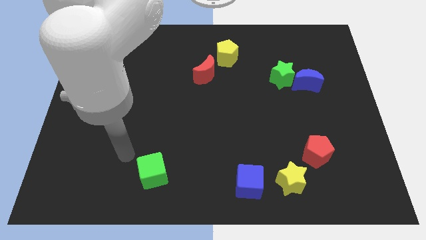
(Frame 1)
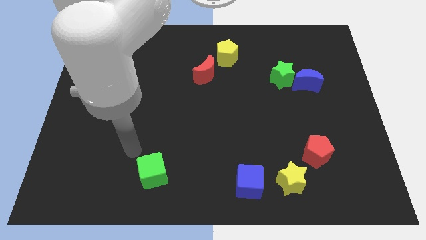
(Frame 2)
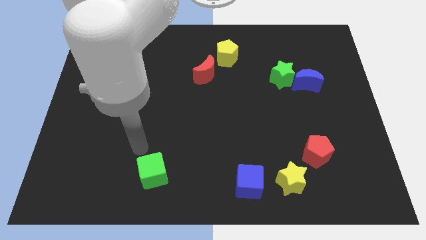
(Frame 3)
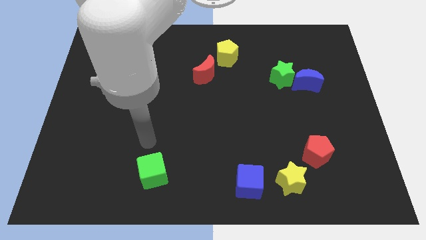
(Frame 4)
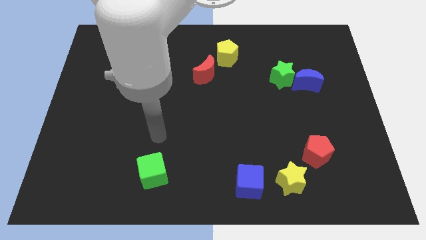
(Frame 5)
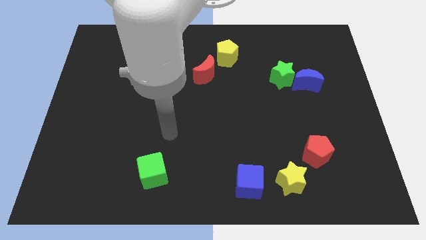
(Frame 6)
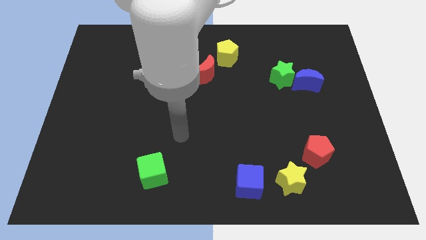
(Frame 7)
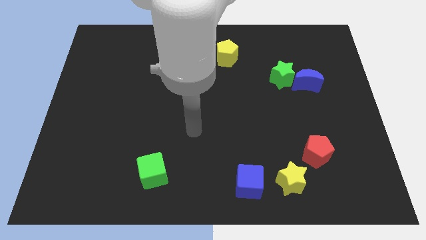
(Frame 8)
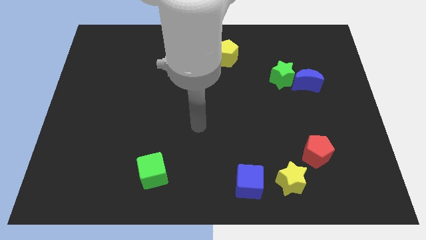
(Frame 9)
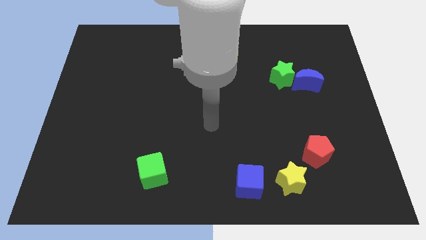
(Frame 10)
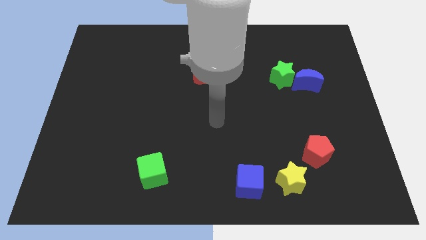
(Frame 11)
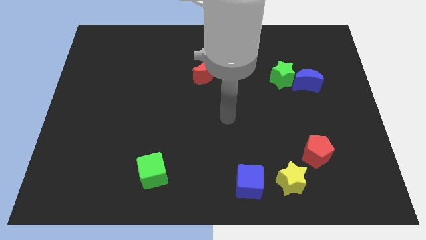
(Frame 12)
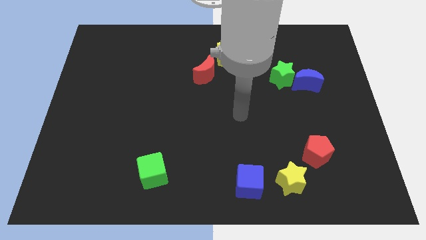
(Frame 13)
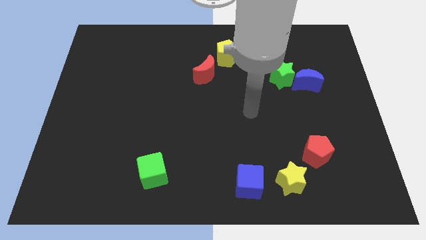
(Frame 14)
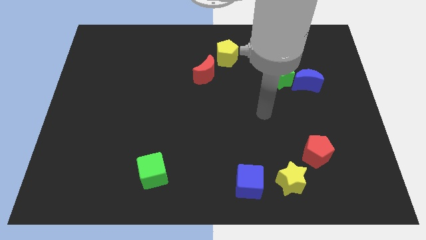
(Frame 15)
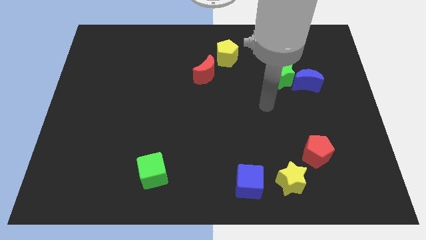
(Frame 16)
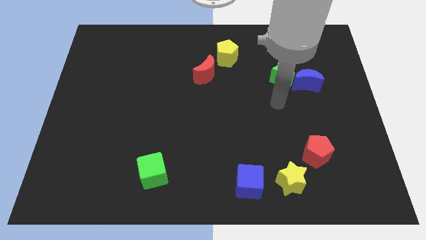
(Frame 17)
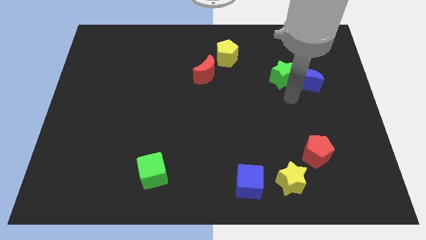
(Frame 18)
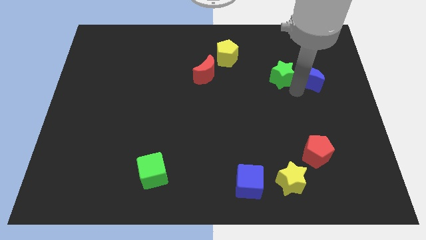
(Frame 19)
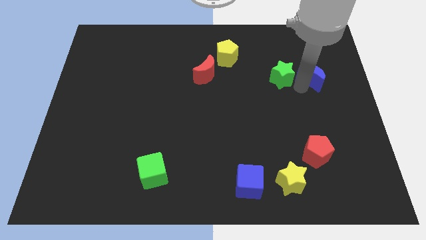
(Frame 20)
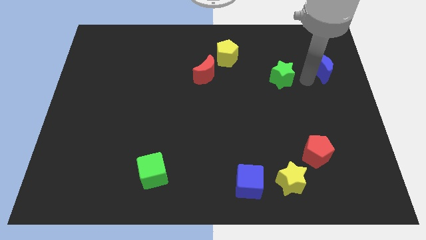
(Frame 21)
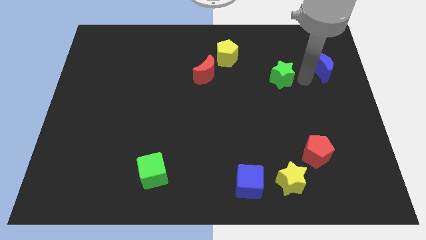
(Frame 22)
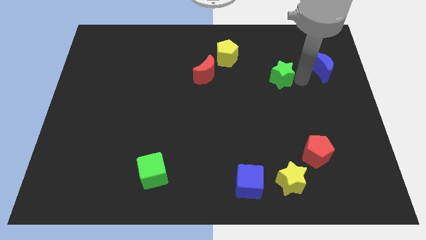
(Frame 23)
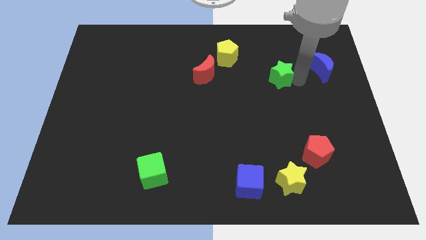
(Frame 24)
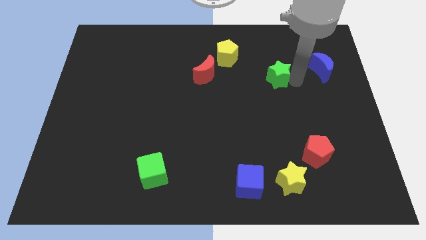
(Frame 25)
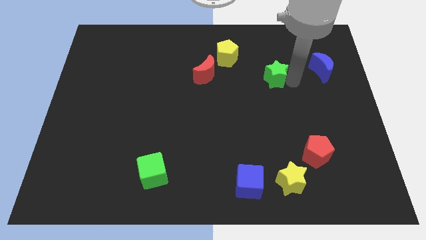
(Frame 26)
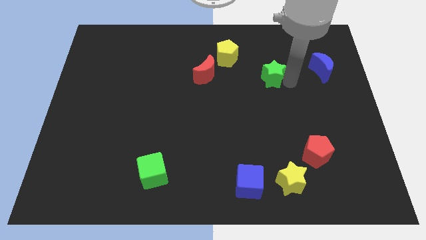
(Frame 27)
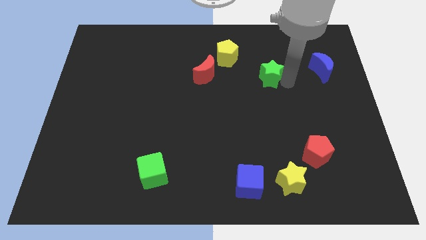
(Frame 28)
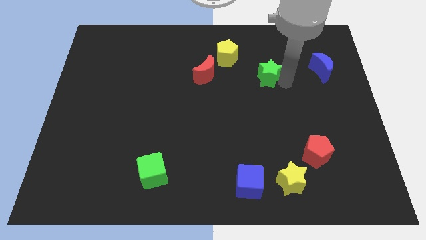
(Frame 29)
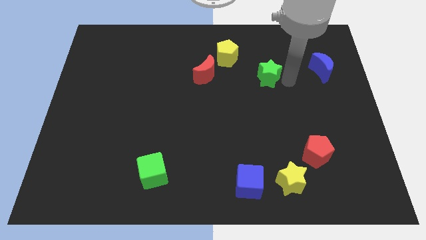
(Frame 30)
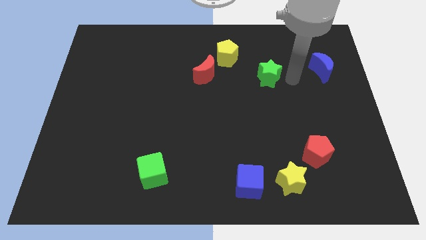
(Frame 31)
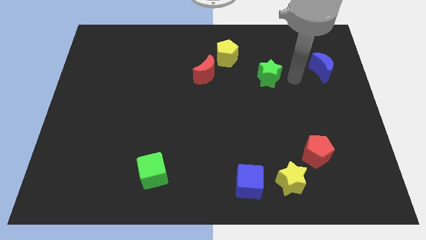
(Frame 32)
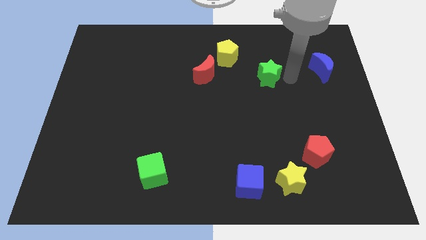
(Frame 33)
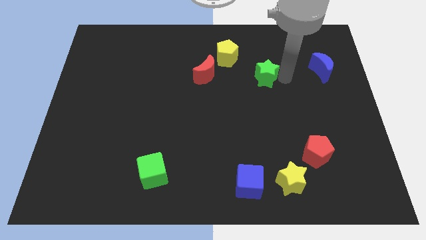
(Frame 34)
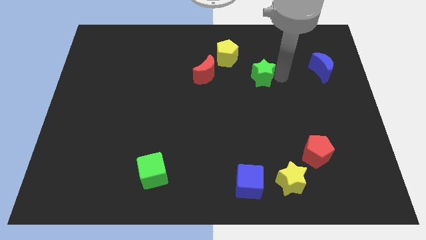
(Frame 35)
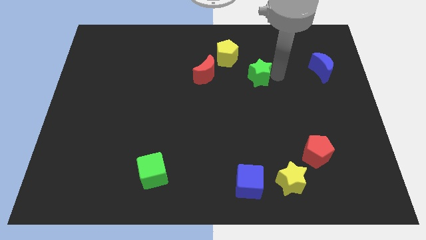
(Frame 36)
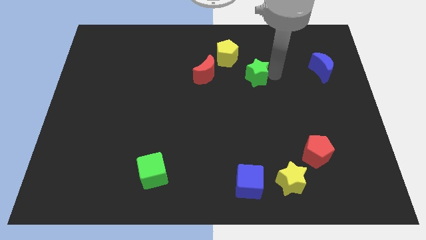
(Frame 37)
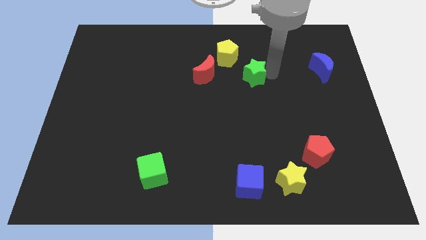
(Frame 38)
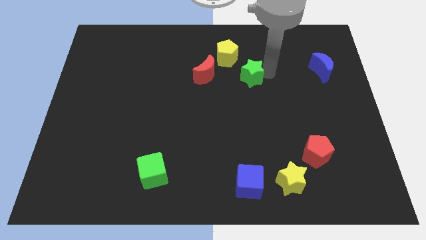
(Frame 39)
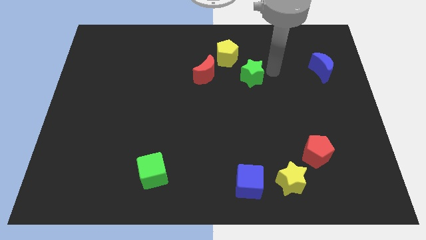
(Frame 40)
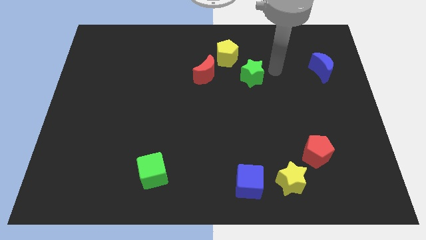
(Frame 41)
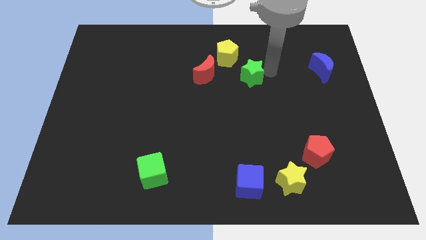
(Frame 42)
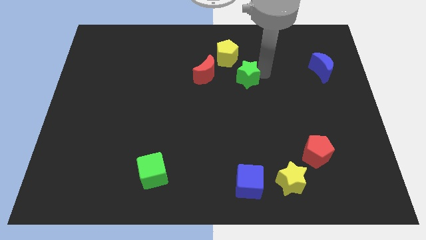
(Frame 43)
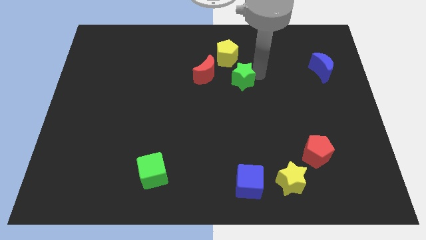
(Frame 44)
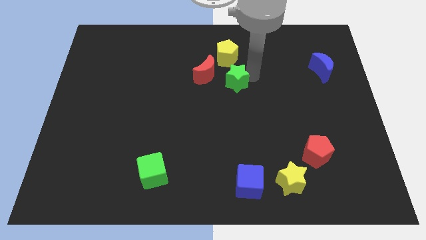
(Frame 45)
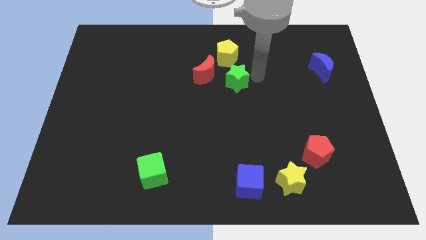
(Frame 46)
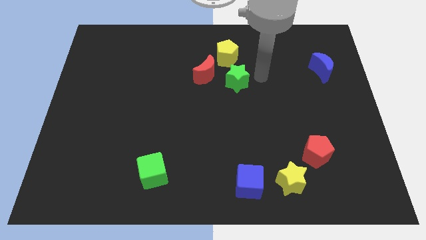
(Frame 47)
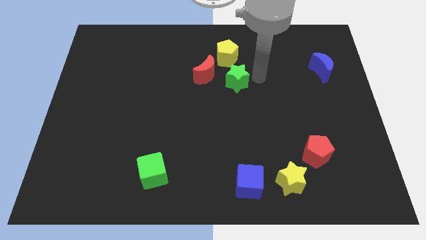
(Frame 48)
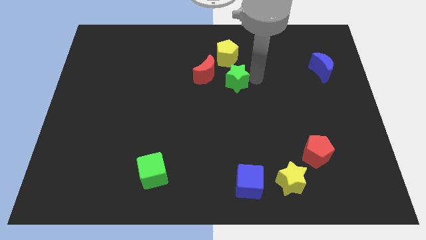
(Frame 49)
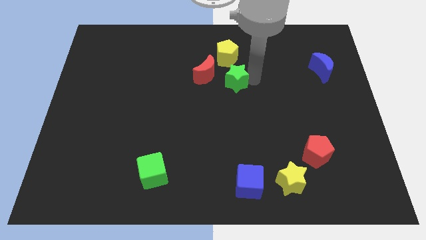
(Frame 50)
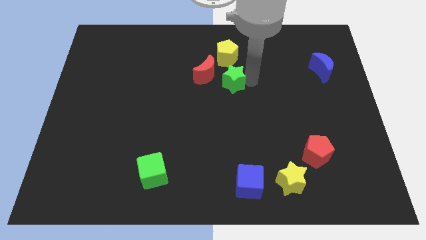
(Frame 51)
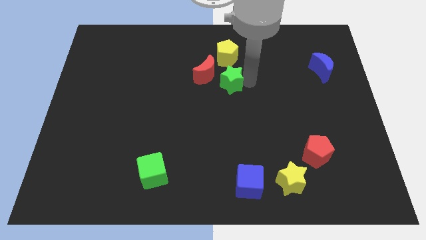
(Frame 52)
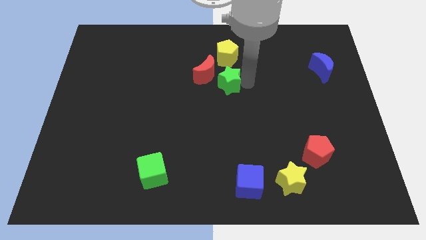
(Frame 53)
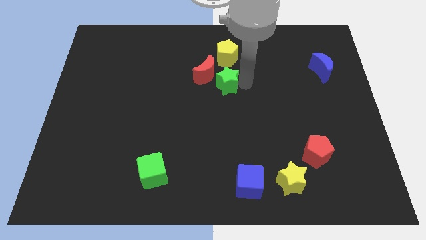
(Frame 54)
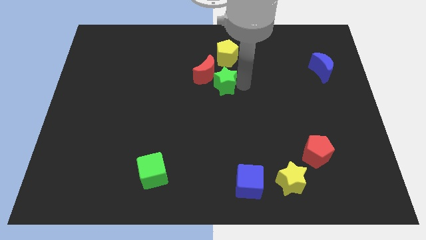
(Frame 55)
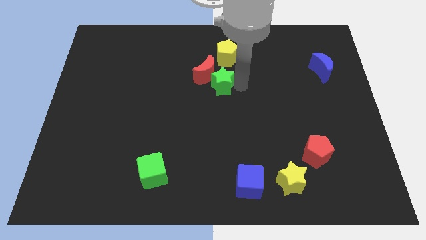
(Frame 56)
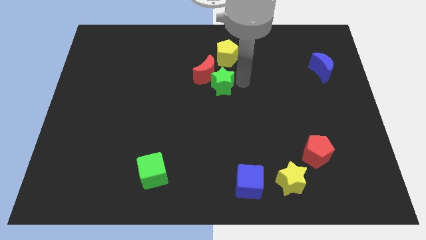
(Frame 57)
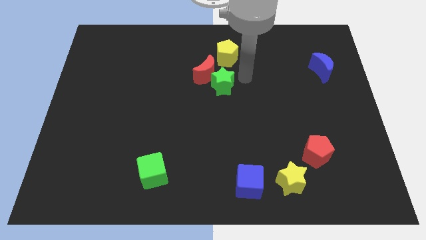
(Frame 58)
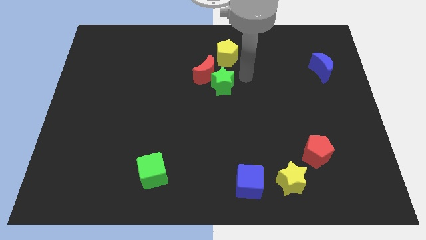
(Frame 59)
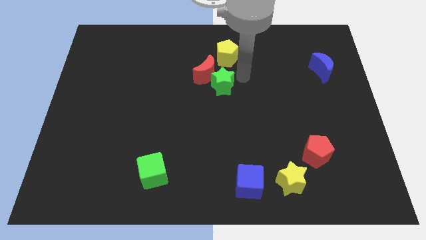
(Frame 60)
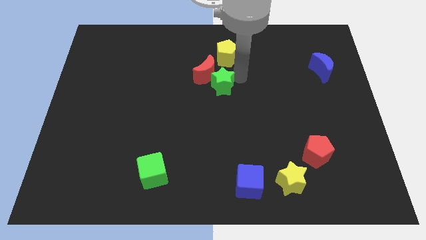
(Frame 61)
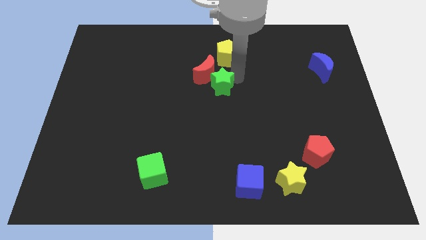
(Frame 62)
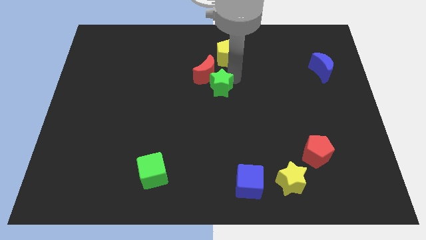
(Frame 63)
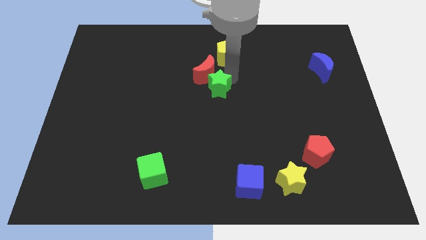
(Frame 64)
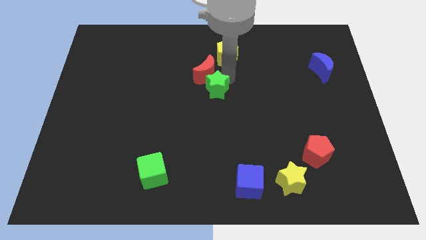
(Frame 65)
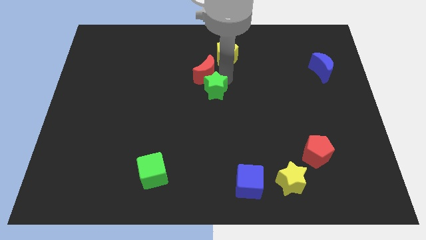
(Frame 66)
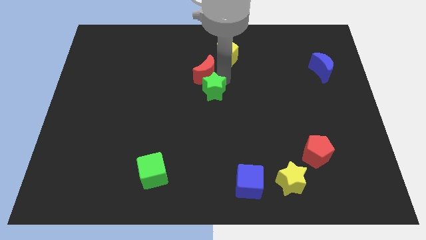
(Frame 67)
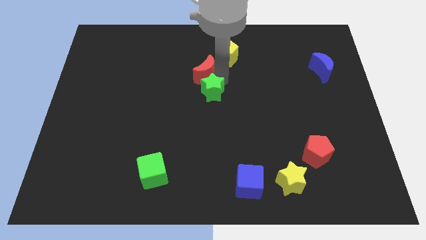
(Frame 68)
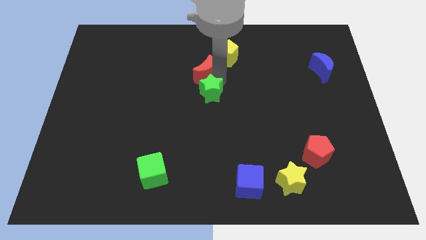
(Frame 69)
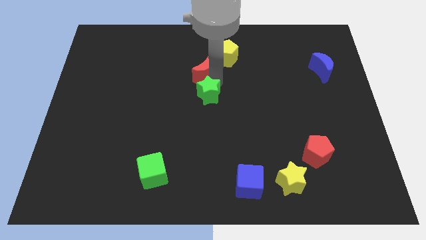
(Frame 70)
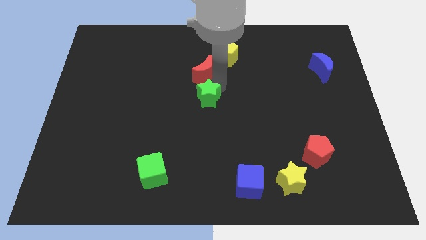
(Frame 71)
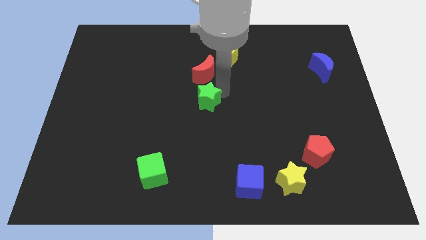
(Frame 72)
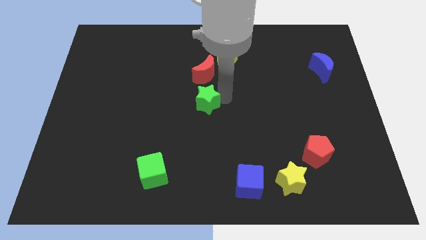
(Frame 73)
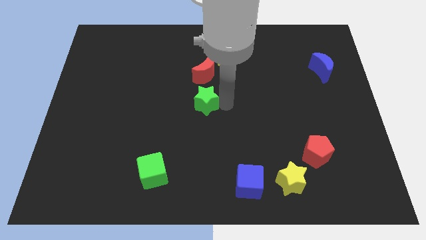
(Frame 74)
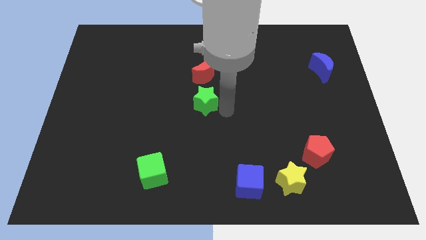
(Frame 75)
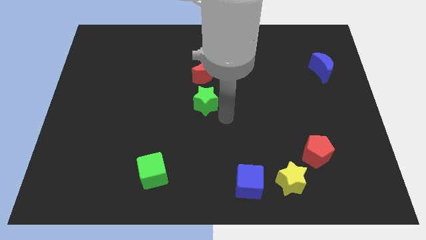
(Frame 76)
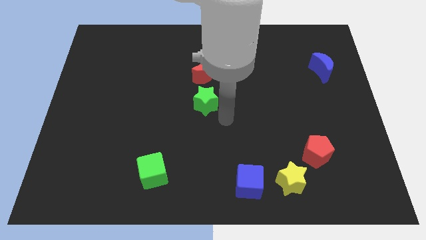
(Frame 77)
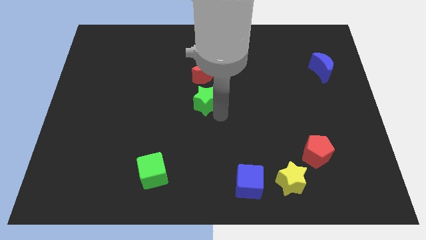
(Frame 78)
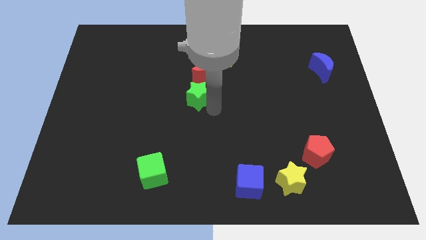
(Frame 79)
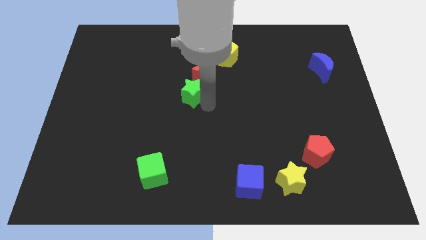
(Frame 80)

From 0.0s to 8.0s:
push the green star to the left

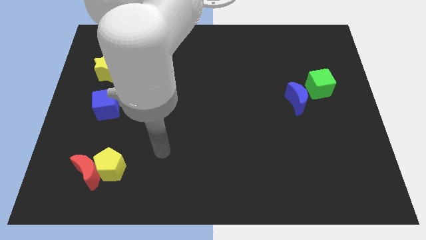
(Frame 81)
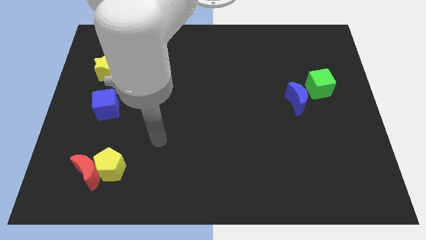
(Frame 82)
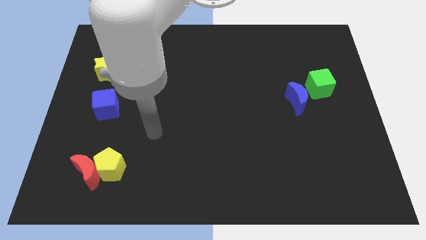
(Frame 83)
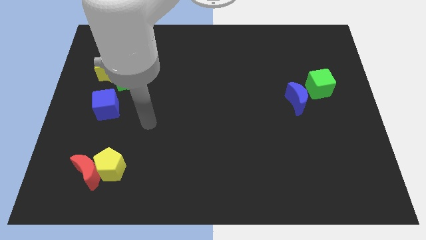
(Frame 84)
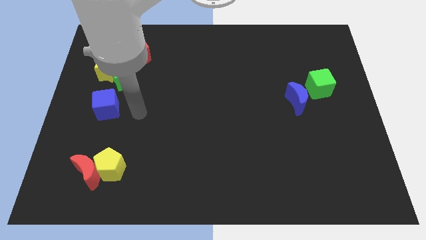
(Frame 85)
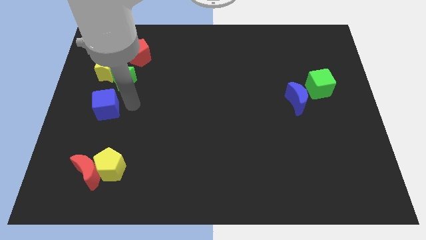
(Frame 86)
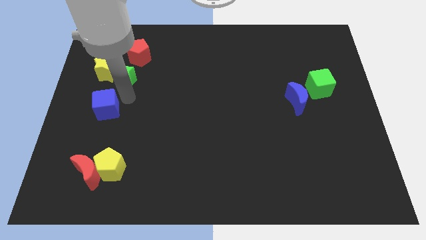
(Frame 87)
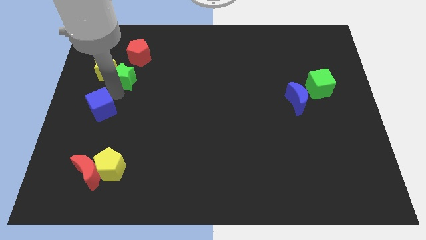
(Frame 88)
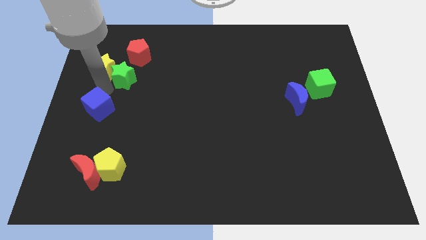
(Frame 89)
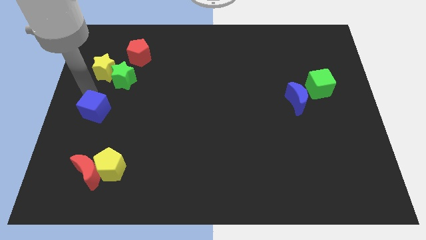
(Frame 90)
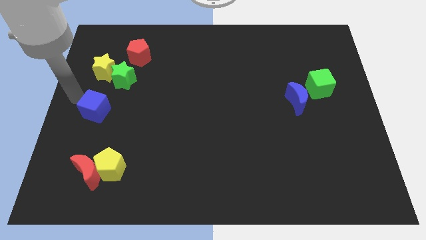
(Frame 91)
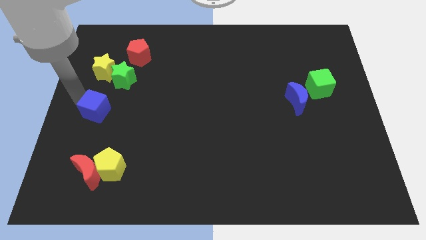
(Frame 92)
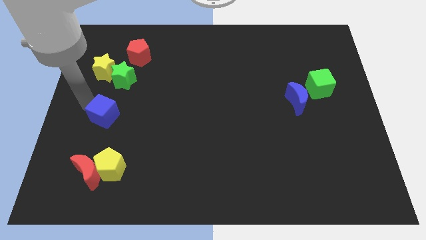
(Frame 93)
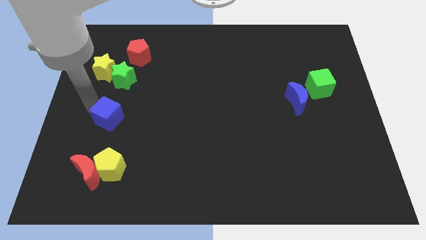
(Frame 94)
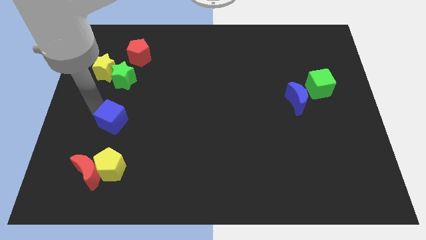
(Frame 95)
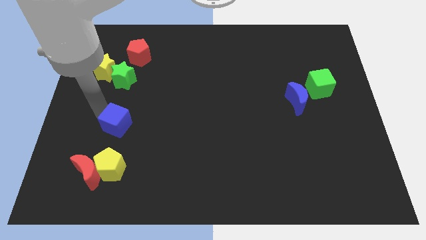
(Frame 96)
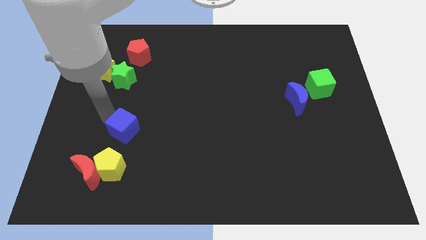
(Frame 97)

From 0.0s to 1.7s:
slightly move the blue cube diagonally downwards and to the right
